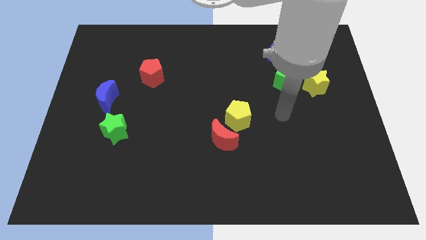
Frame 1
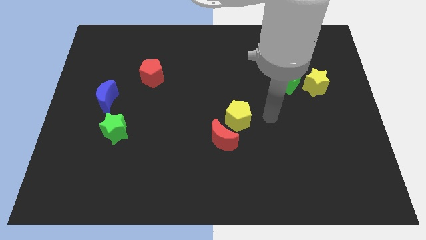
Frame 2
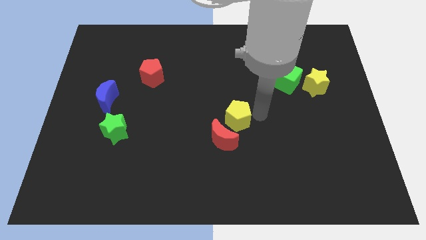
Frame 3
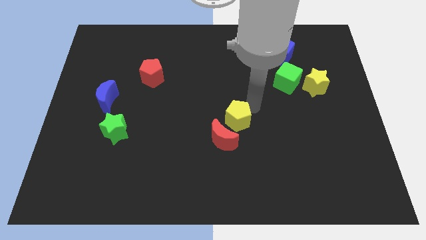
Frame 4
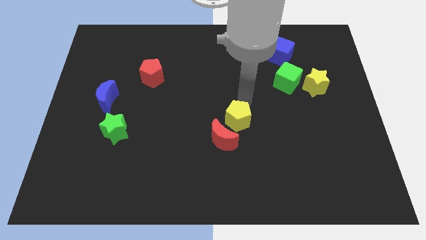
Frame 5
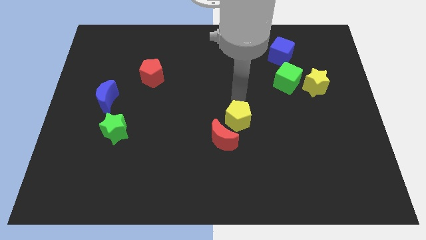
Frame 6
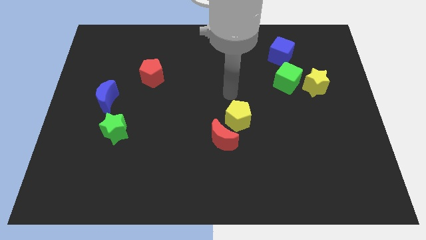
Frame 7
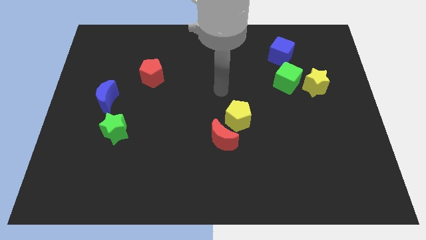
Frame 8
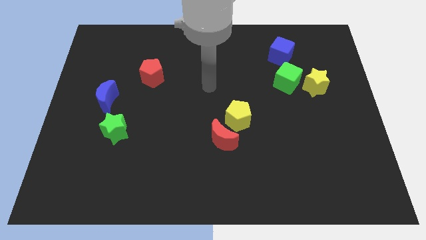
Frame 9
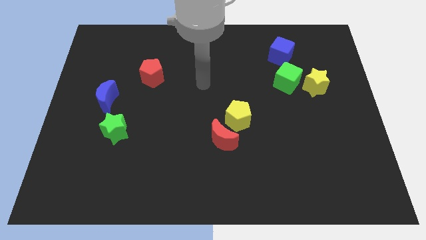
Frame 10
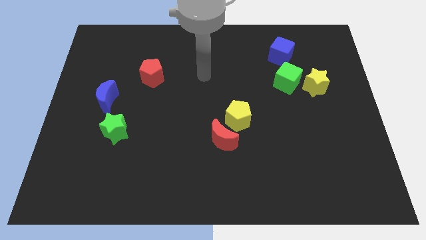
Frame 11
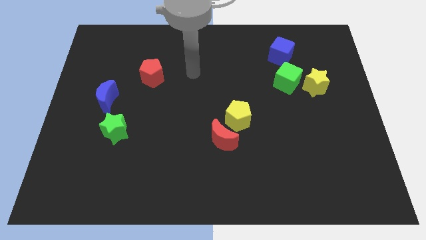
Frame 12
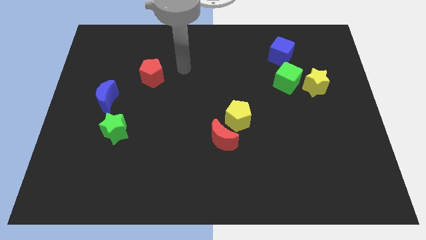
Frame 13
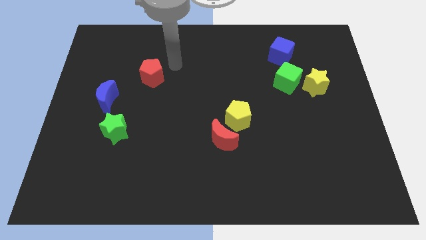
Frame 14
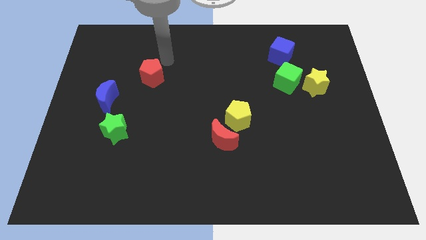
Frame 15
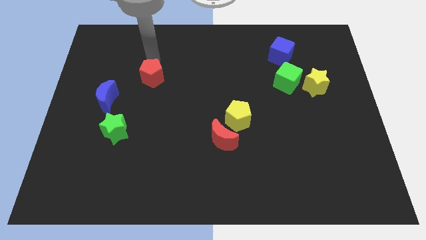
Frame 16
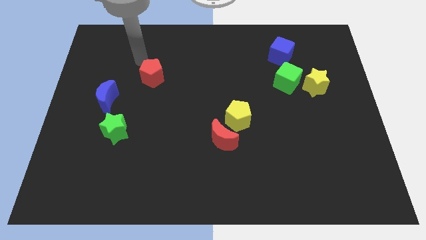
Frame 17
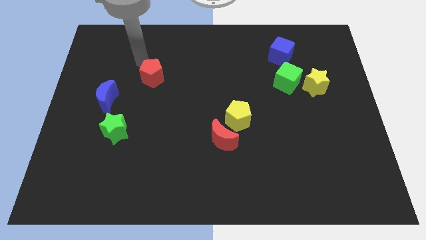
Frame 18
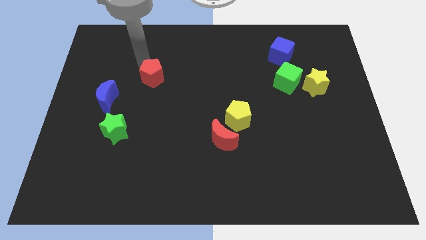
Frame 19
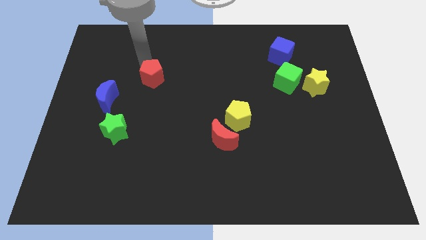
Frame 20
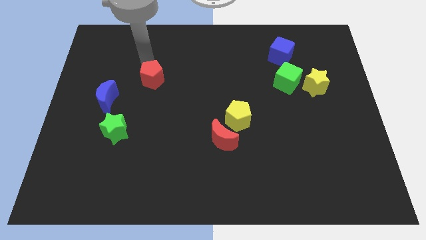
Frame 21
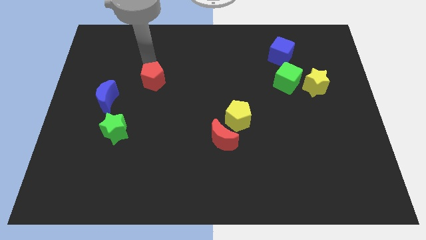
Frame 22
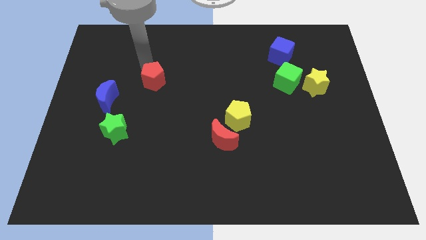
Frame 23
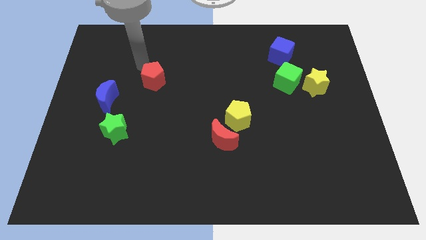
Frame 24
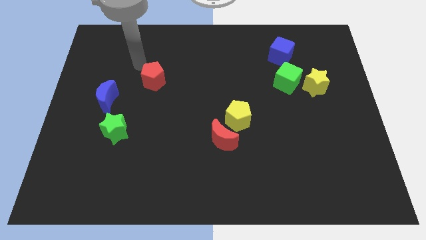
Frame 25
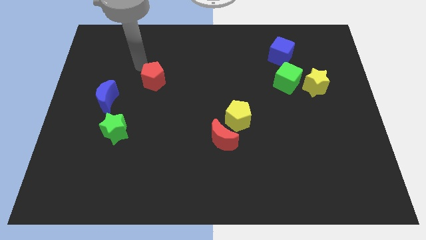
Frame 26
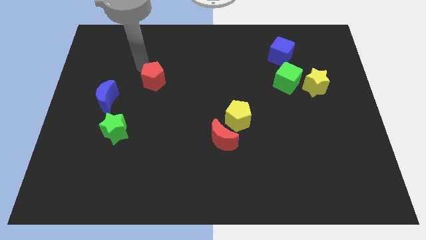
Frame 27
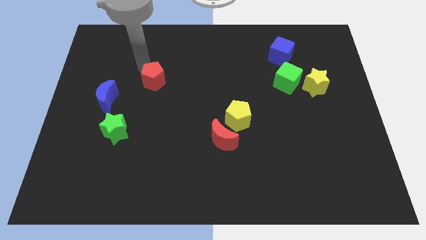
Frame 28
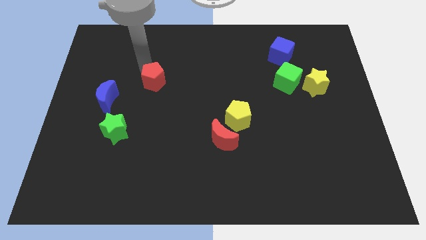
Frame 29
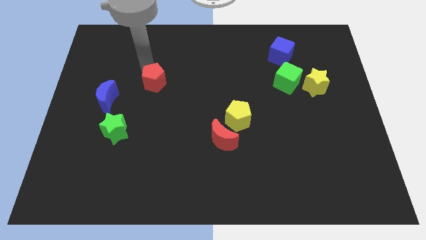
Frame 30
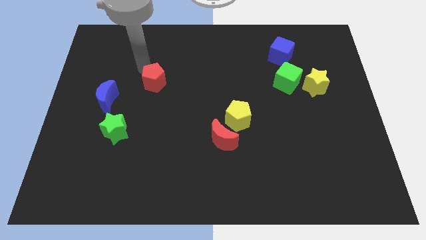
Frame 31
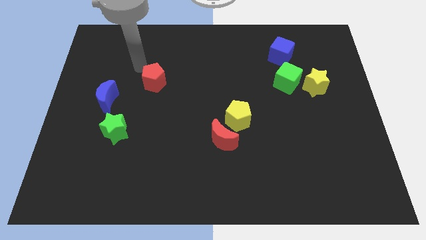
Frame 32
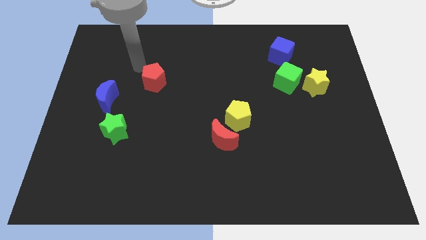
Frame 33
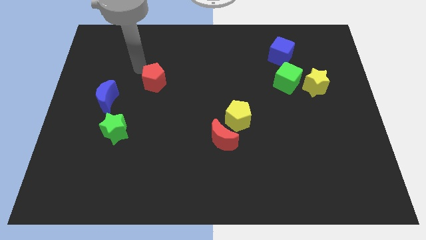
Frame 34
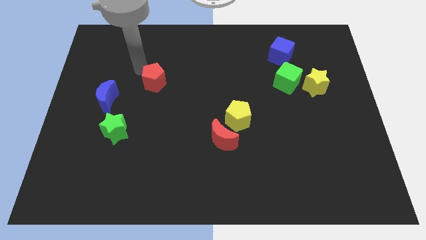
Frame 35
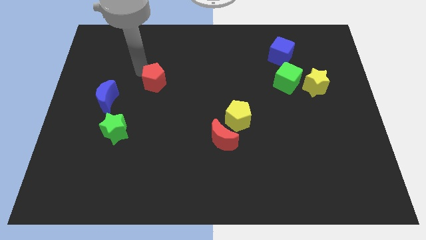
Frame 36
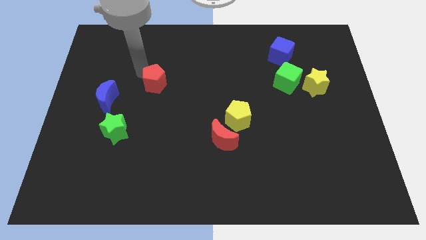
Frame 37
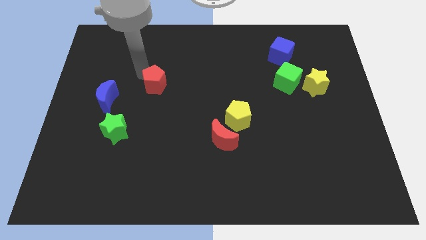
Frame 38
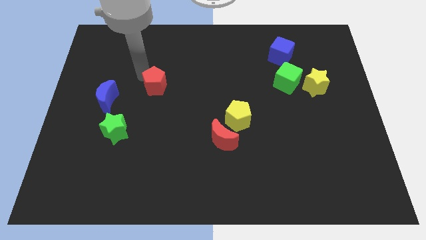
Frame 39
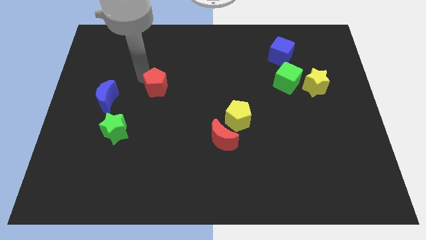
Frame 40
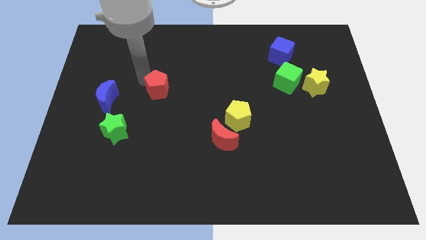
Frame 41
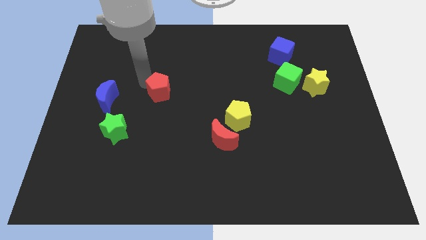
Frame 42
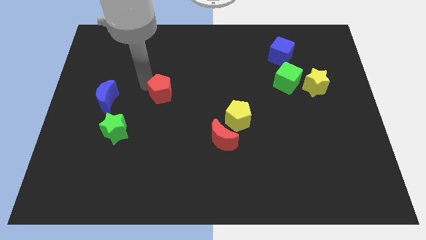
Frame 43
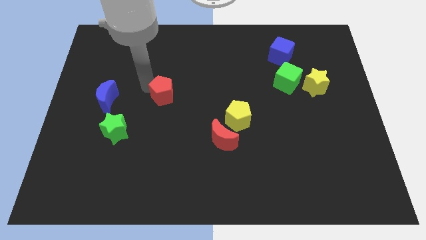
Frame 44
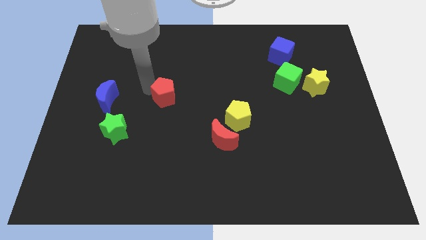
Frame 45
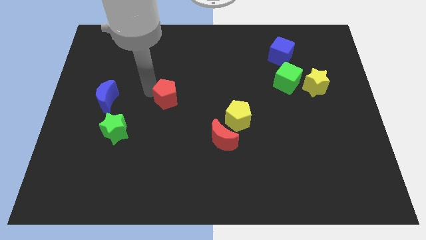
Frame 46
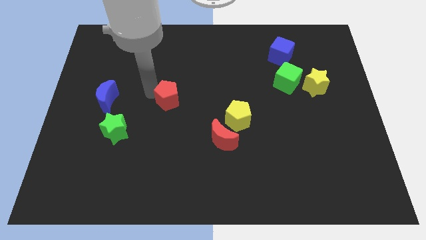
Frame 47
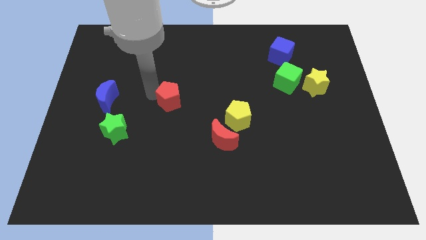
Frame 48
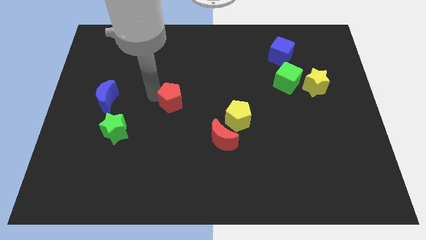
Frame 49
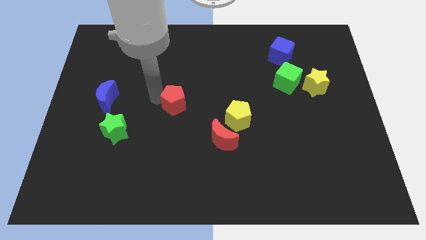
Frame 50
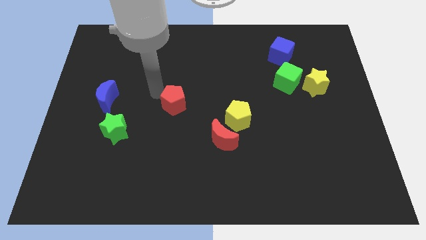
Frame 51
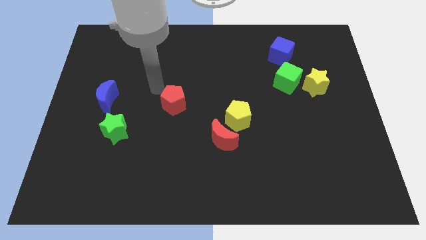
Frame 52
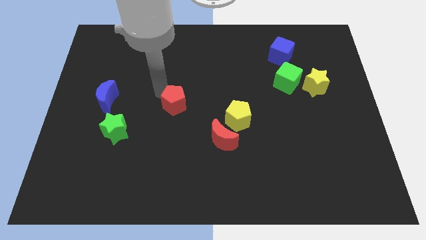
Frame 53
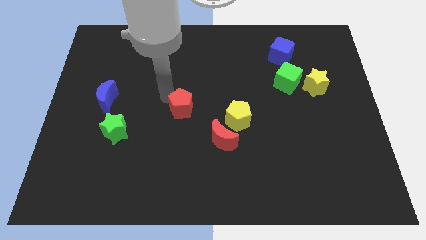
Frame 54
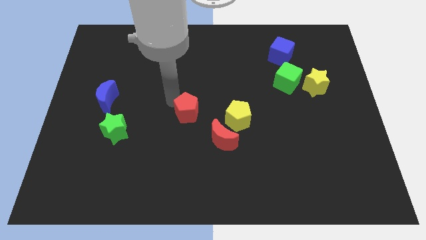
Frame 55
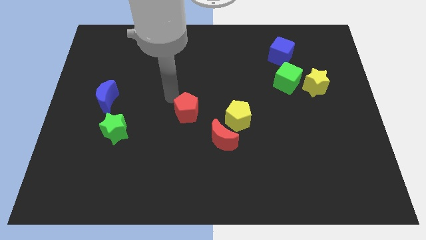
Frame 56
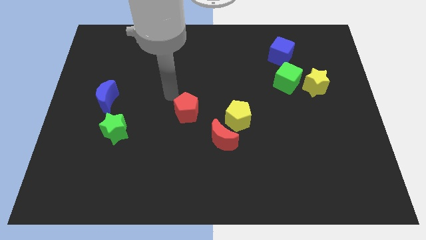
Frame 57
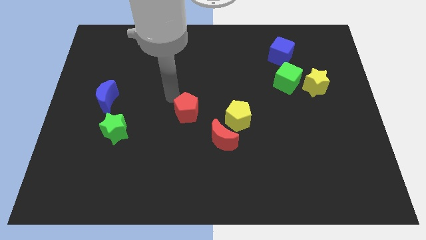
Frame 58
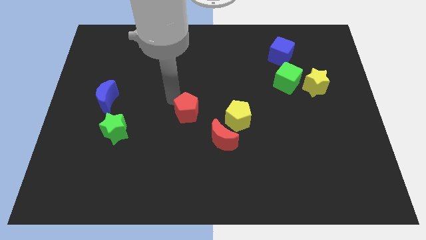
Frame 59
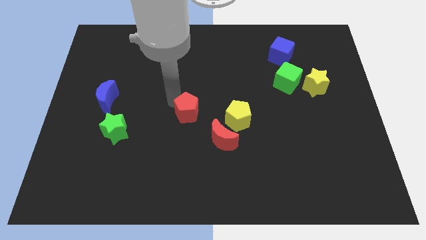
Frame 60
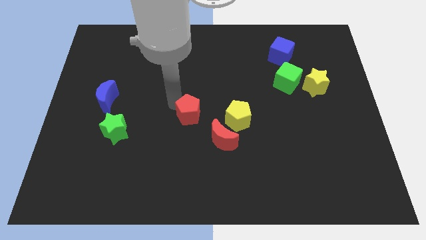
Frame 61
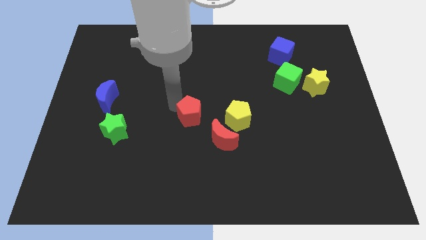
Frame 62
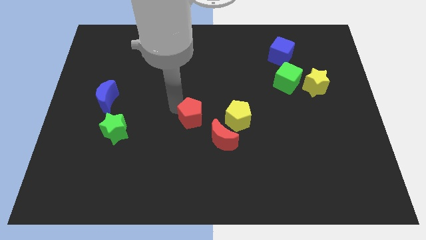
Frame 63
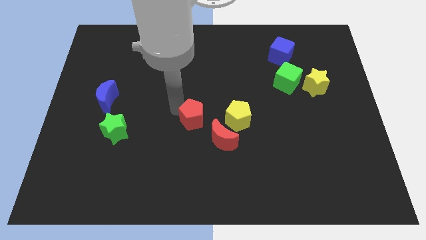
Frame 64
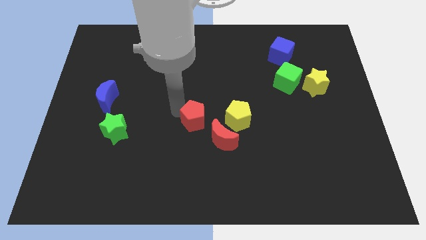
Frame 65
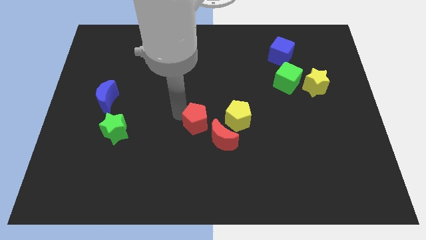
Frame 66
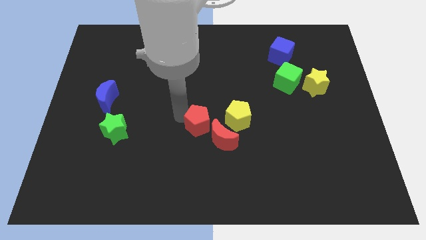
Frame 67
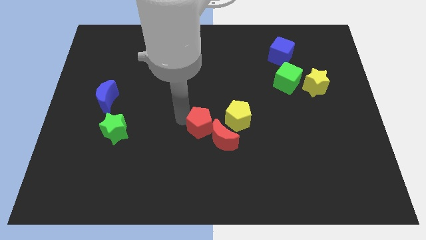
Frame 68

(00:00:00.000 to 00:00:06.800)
slide the red pentagon towards the red moon

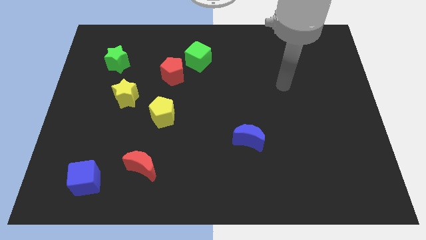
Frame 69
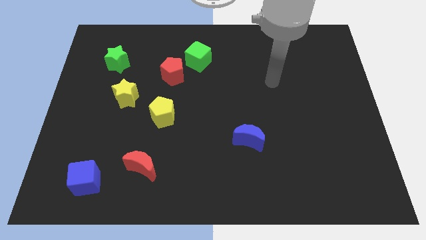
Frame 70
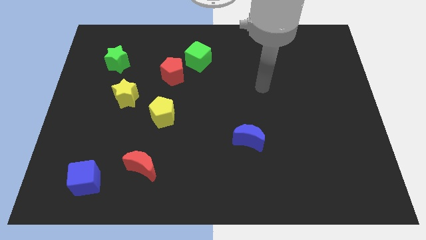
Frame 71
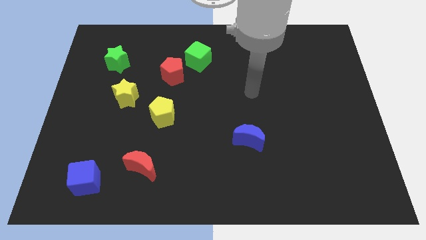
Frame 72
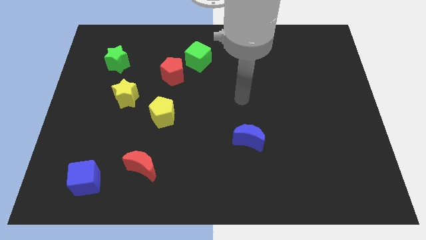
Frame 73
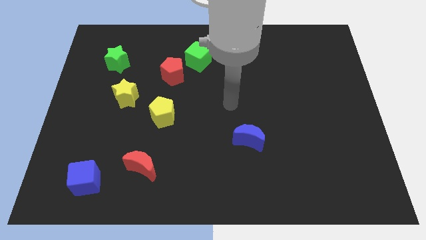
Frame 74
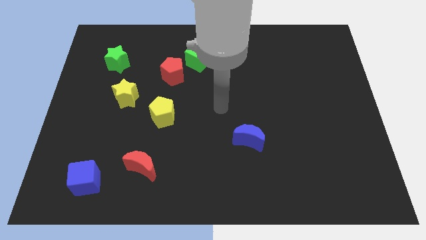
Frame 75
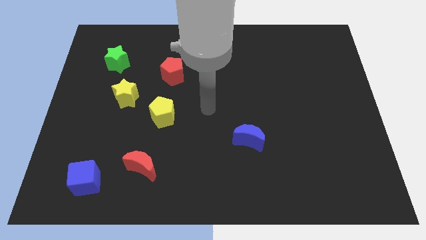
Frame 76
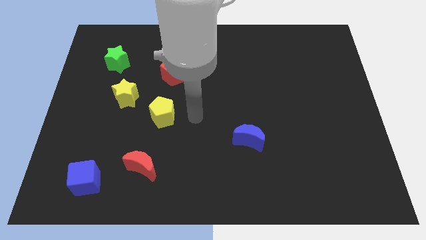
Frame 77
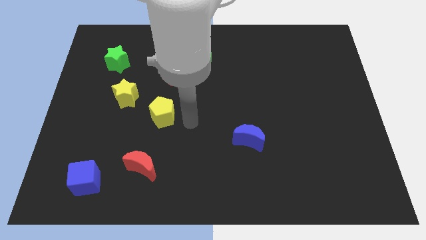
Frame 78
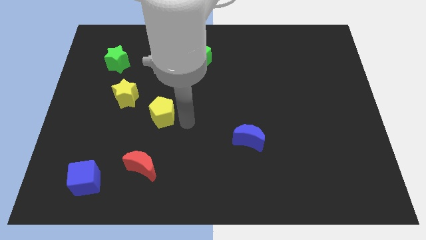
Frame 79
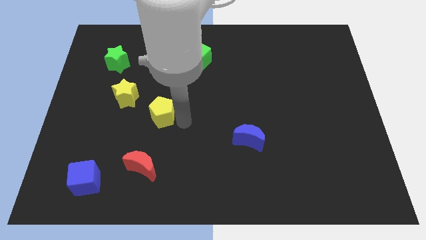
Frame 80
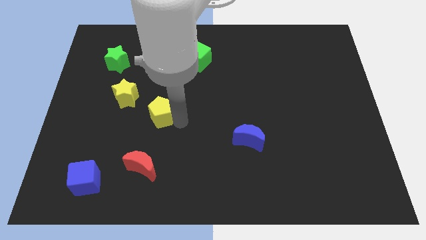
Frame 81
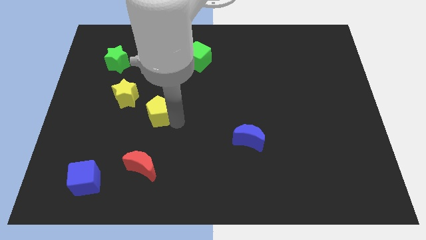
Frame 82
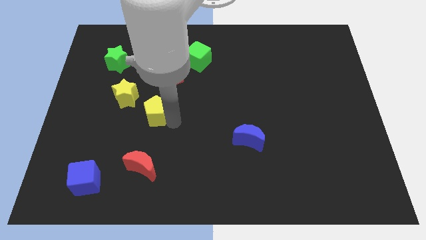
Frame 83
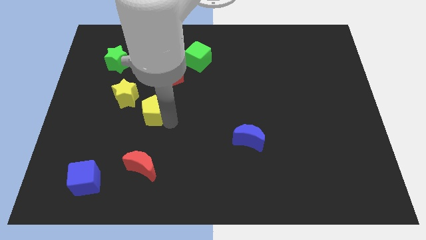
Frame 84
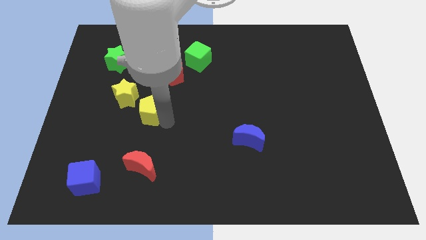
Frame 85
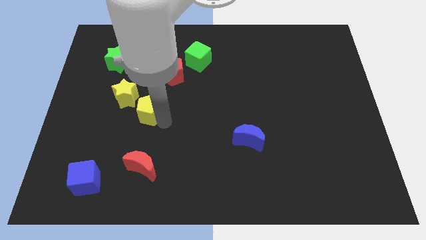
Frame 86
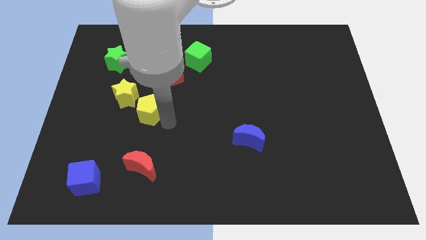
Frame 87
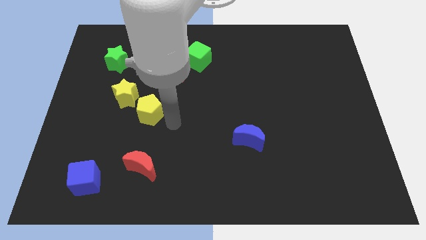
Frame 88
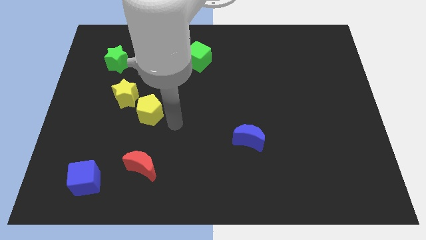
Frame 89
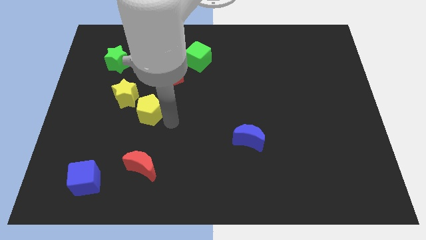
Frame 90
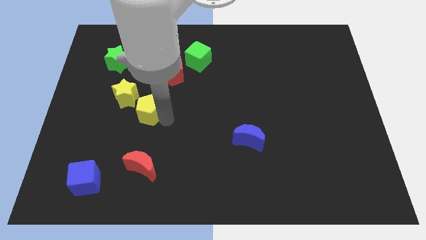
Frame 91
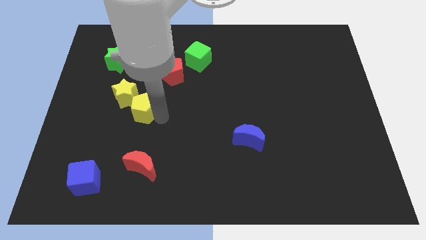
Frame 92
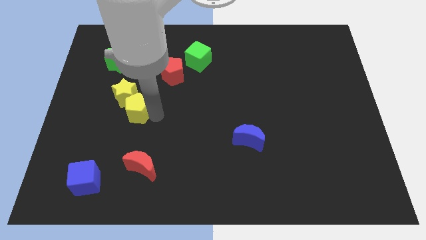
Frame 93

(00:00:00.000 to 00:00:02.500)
slide the yellow pentagon towards the yellow star
